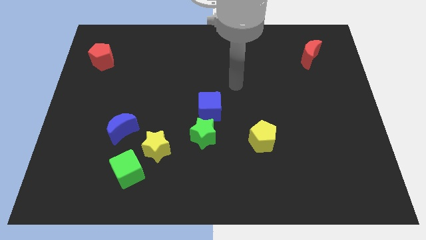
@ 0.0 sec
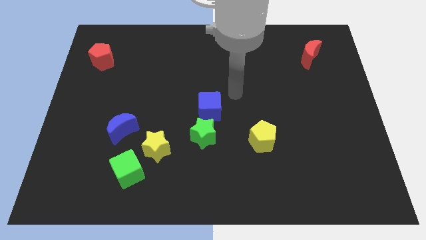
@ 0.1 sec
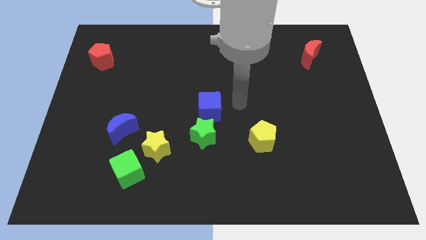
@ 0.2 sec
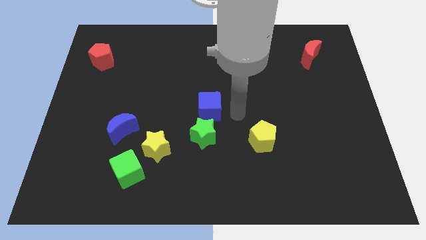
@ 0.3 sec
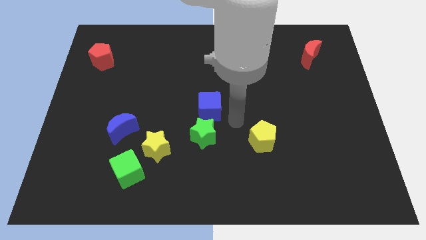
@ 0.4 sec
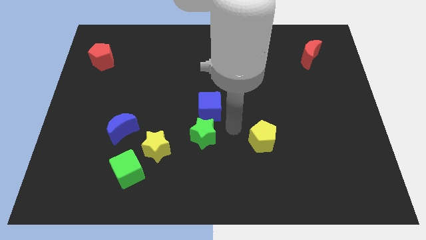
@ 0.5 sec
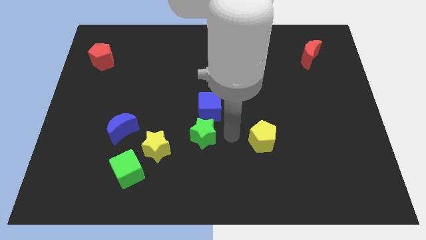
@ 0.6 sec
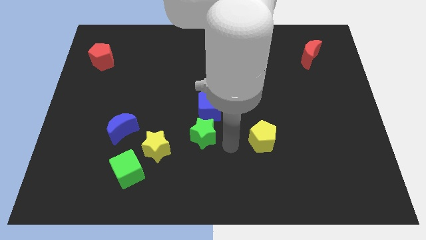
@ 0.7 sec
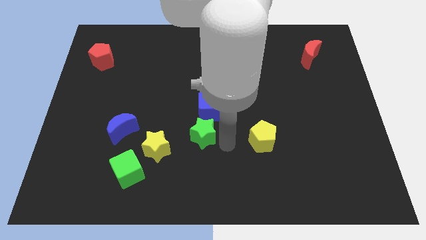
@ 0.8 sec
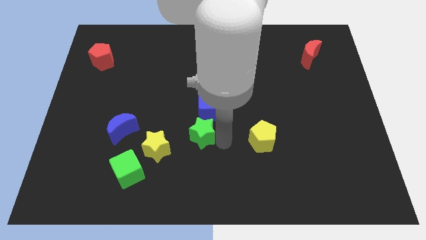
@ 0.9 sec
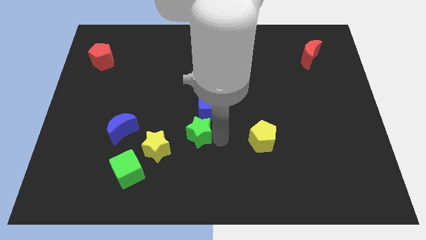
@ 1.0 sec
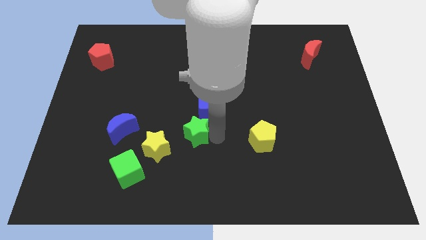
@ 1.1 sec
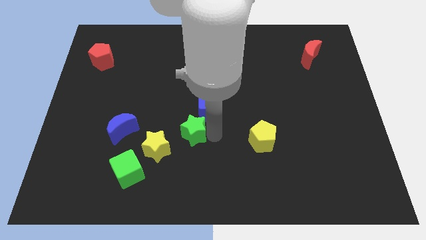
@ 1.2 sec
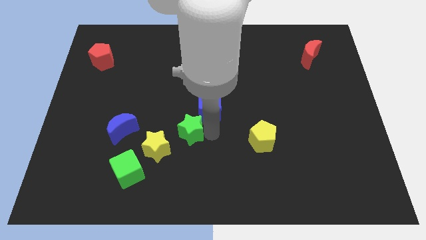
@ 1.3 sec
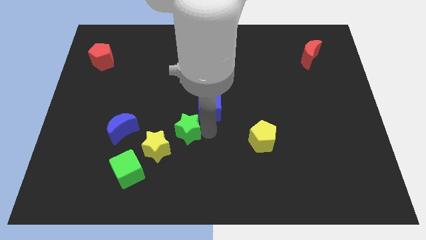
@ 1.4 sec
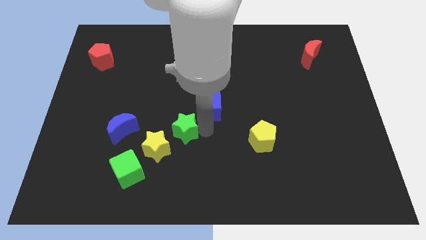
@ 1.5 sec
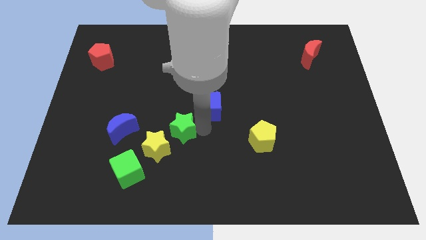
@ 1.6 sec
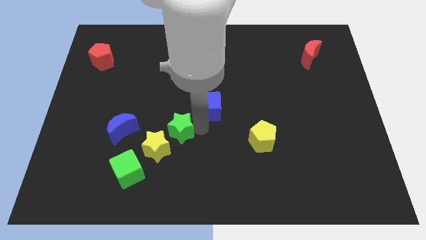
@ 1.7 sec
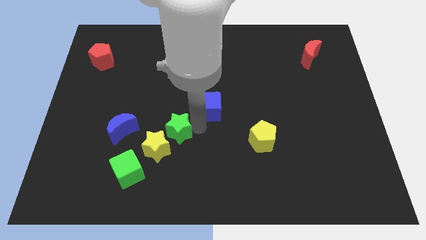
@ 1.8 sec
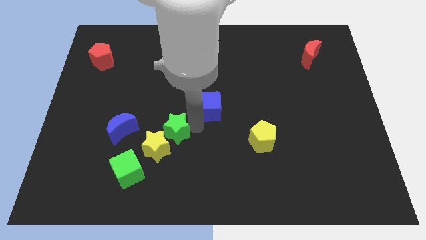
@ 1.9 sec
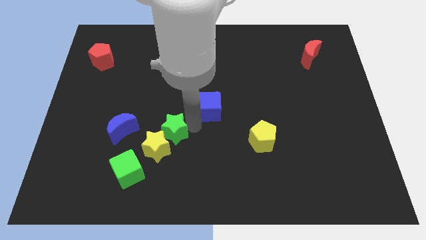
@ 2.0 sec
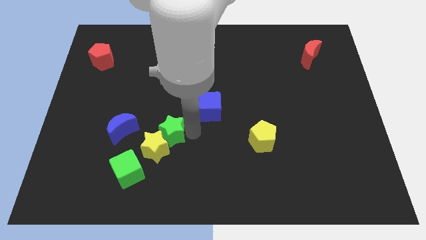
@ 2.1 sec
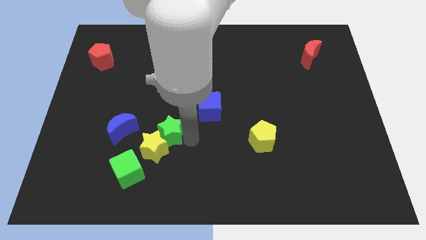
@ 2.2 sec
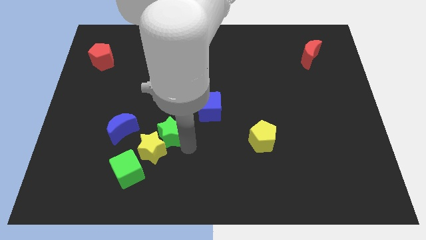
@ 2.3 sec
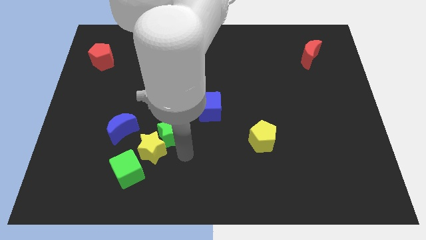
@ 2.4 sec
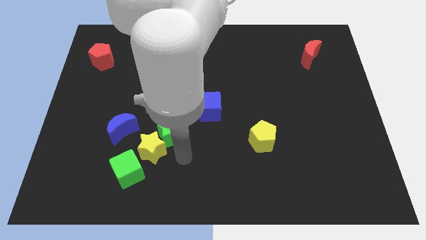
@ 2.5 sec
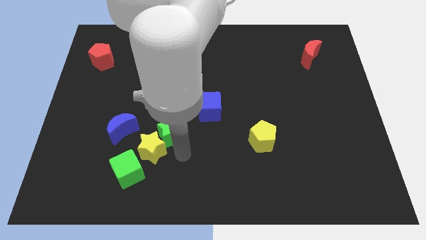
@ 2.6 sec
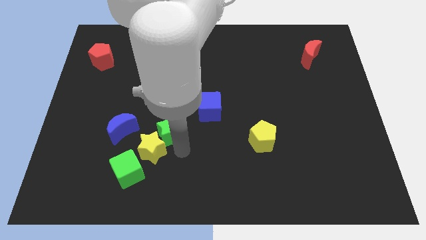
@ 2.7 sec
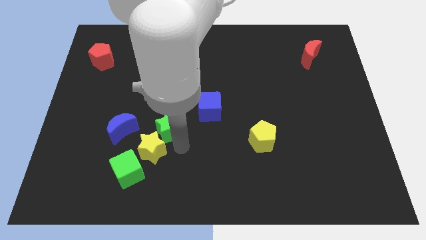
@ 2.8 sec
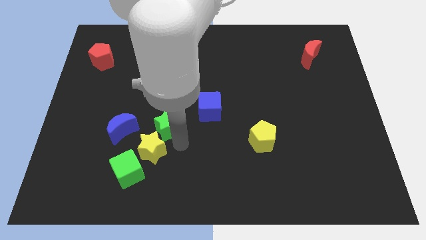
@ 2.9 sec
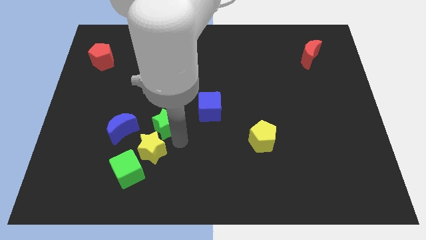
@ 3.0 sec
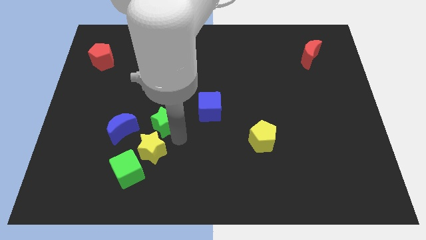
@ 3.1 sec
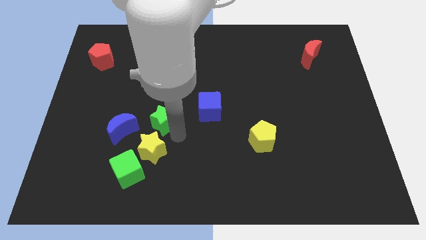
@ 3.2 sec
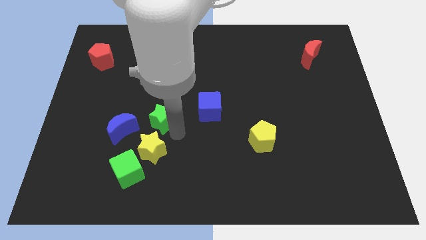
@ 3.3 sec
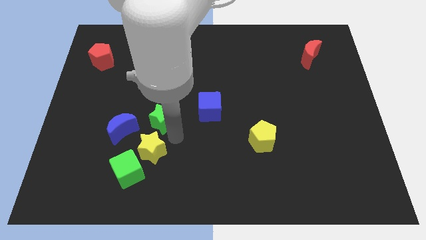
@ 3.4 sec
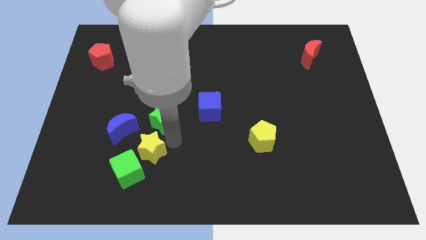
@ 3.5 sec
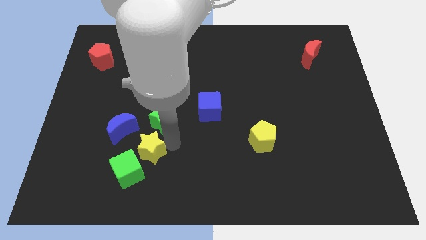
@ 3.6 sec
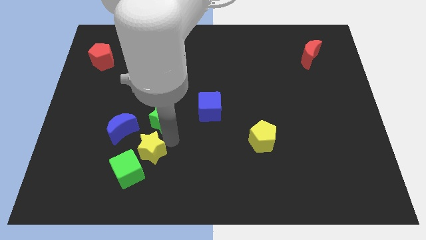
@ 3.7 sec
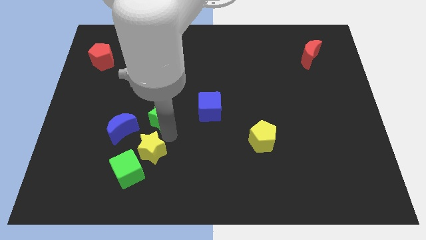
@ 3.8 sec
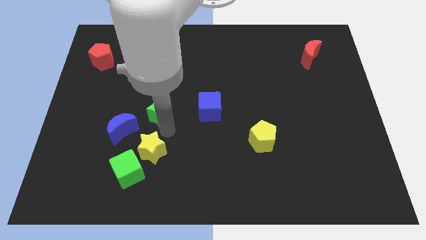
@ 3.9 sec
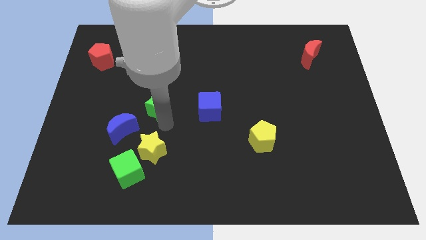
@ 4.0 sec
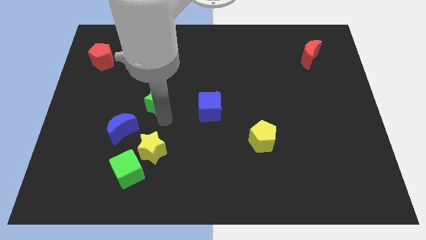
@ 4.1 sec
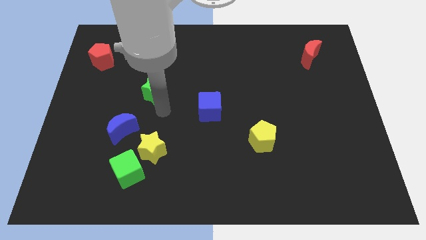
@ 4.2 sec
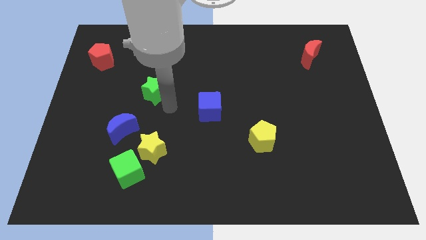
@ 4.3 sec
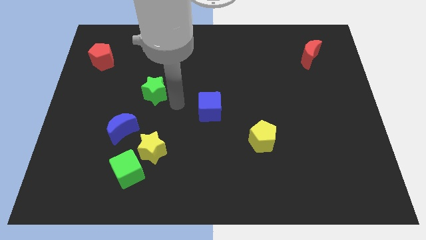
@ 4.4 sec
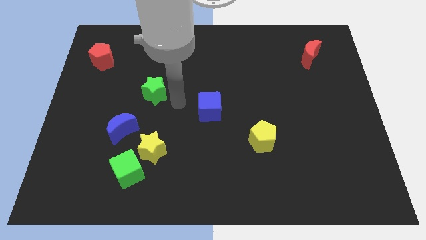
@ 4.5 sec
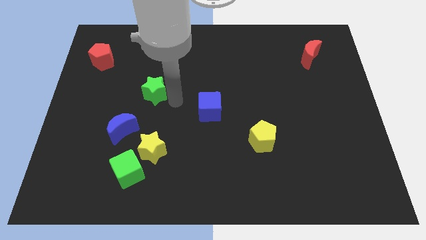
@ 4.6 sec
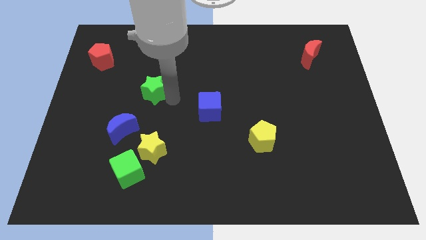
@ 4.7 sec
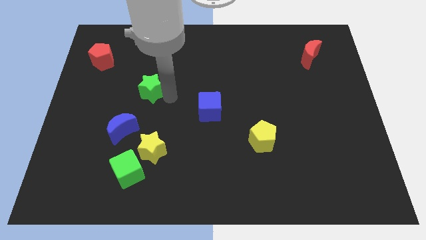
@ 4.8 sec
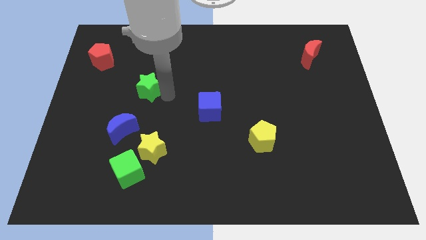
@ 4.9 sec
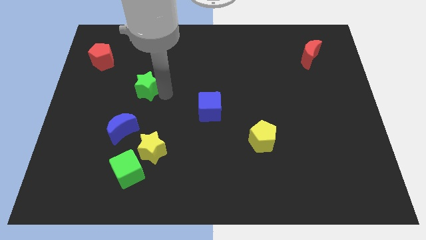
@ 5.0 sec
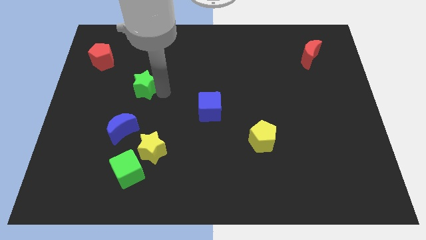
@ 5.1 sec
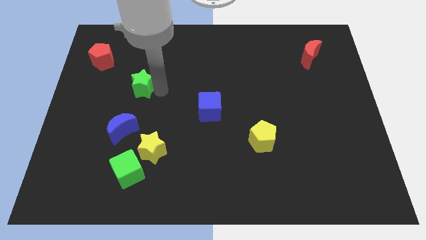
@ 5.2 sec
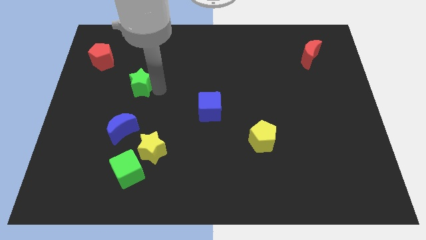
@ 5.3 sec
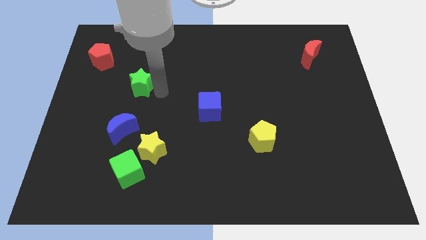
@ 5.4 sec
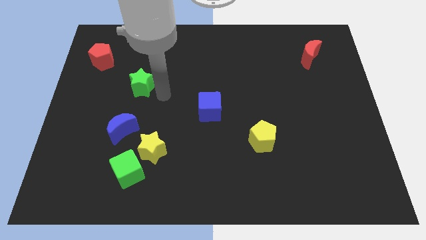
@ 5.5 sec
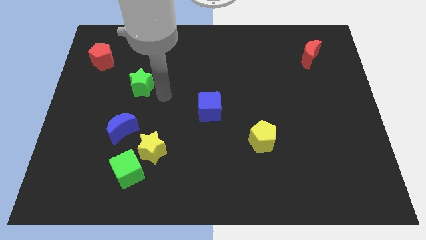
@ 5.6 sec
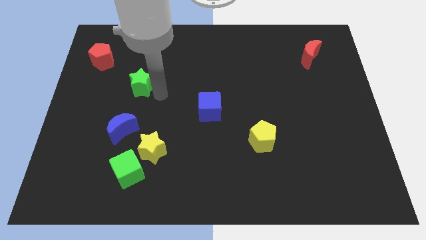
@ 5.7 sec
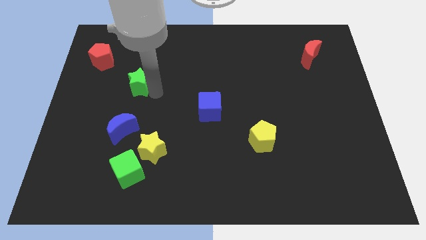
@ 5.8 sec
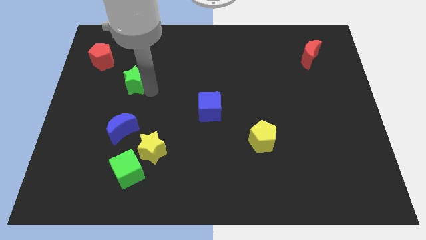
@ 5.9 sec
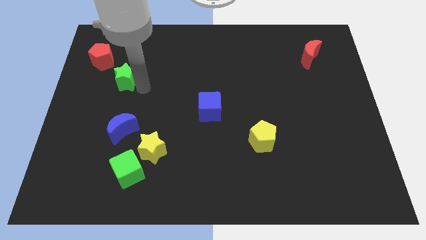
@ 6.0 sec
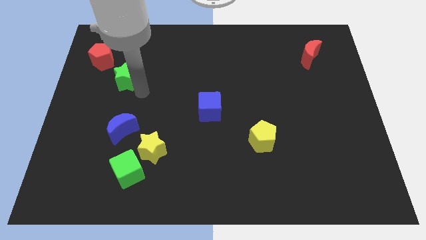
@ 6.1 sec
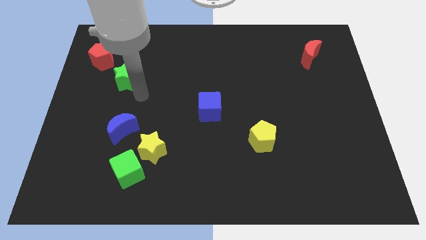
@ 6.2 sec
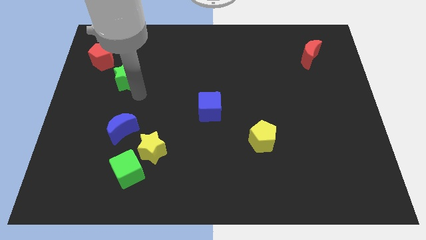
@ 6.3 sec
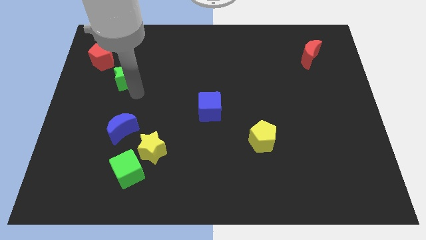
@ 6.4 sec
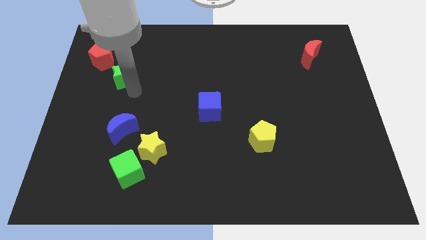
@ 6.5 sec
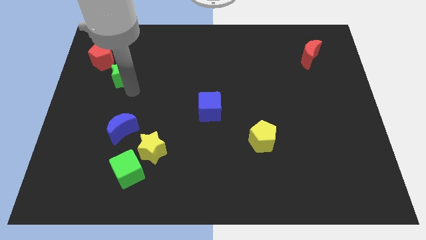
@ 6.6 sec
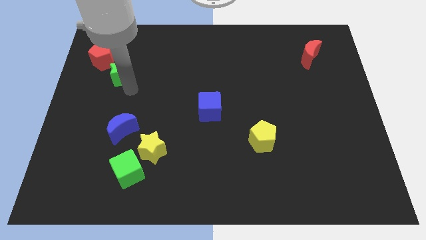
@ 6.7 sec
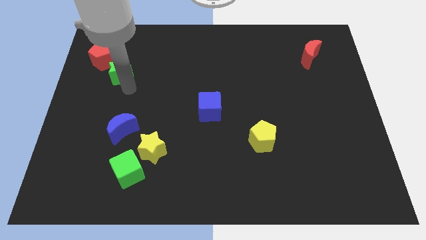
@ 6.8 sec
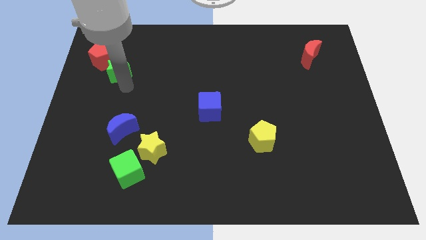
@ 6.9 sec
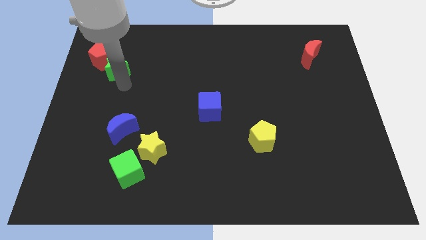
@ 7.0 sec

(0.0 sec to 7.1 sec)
move the green star to the red pentagon

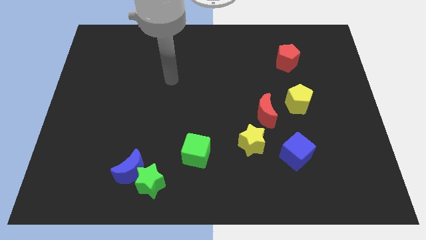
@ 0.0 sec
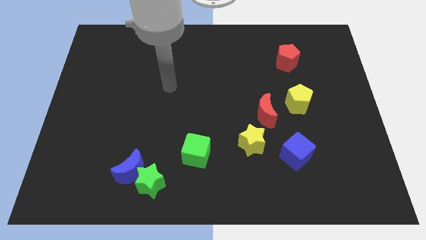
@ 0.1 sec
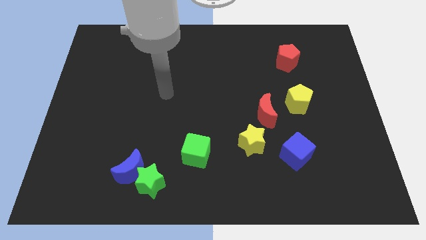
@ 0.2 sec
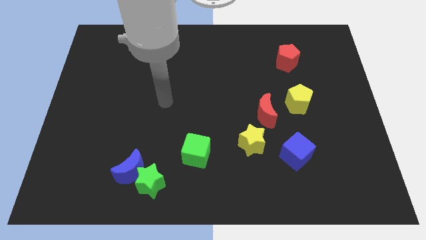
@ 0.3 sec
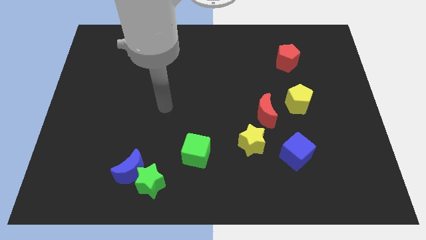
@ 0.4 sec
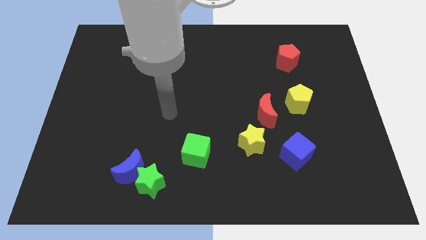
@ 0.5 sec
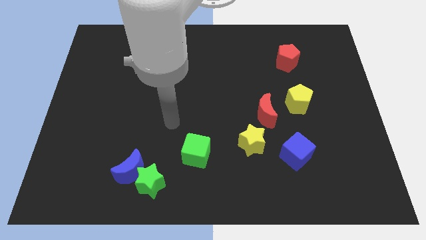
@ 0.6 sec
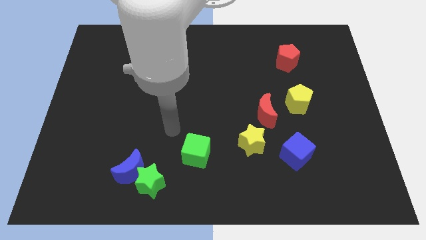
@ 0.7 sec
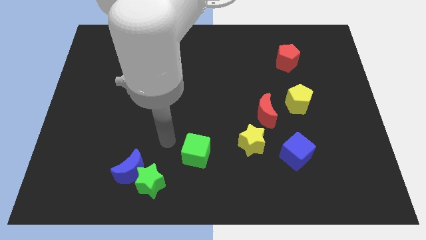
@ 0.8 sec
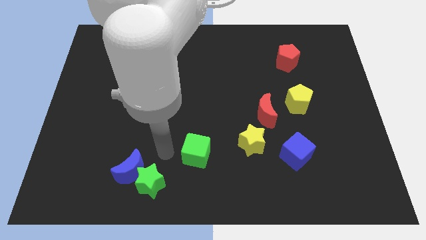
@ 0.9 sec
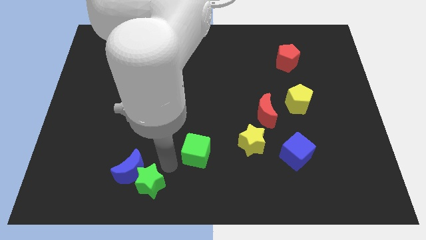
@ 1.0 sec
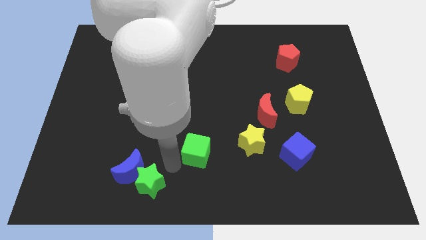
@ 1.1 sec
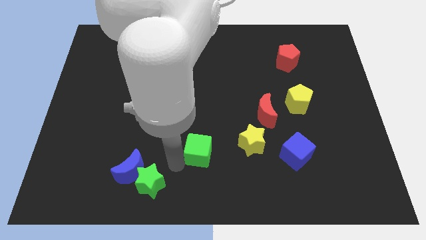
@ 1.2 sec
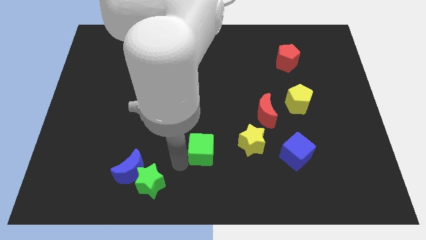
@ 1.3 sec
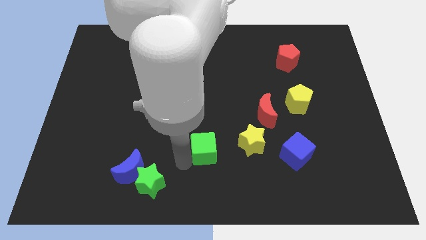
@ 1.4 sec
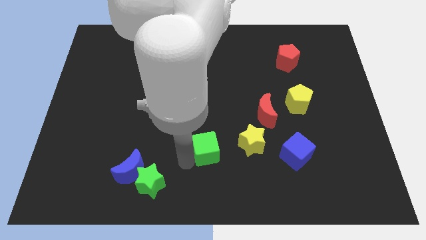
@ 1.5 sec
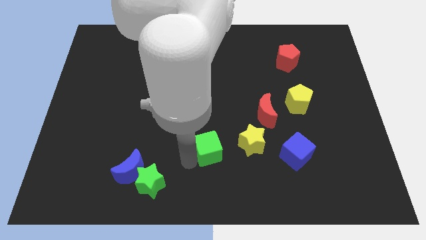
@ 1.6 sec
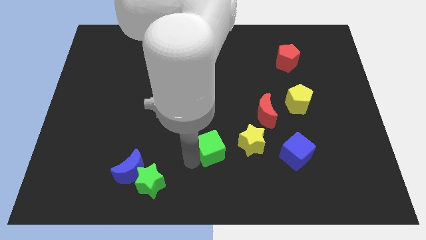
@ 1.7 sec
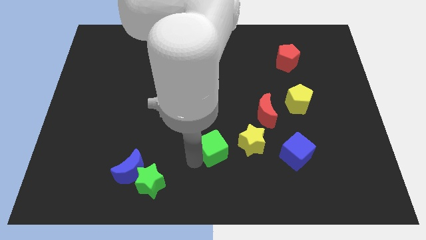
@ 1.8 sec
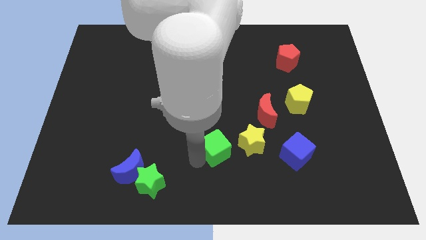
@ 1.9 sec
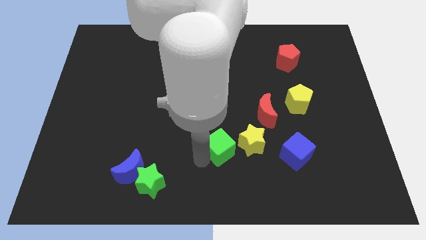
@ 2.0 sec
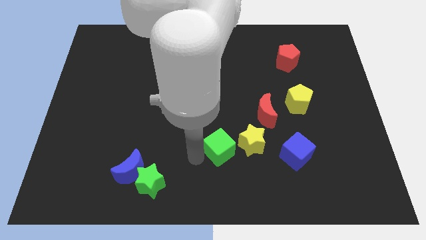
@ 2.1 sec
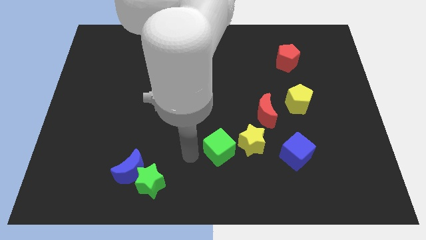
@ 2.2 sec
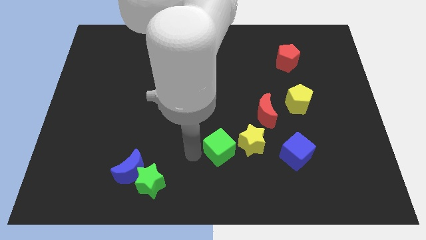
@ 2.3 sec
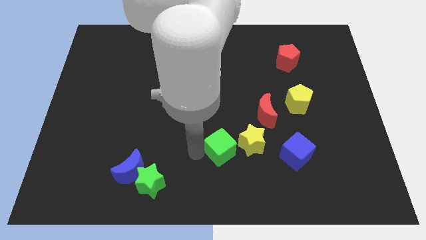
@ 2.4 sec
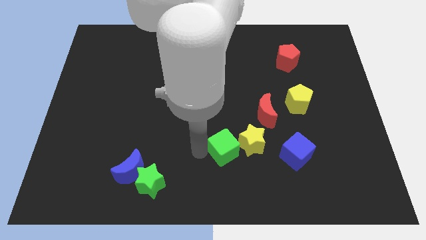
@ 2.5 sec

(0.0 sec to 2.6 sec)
put the green cube to the yellow star
